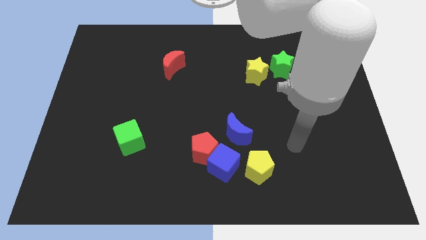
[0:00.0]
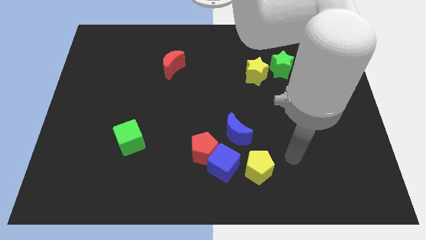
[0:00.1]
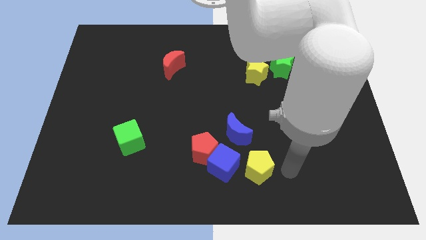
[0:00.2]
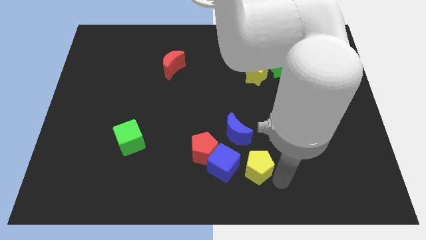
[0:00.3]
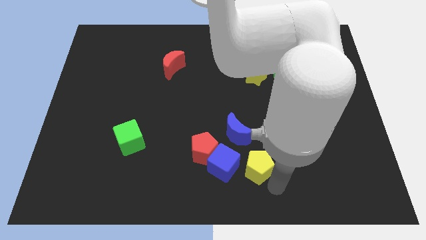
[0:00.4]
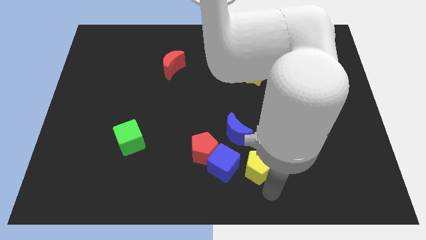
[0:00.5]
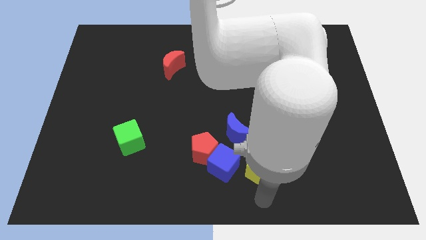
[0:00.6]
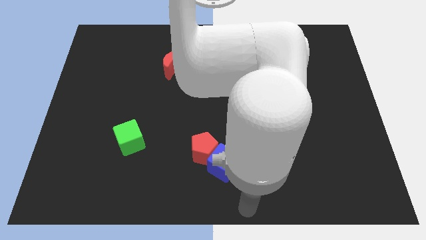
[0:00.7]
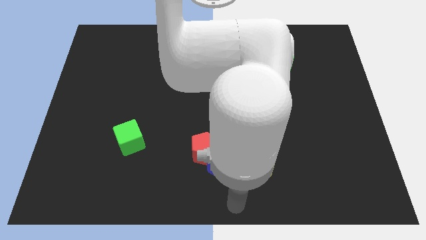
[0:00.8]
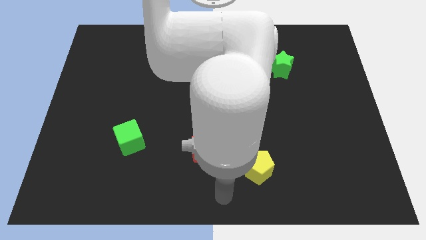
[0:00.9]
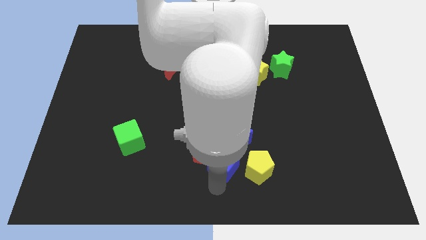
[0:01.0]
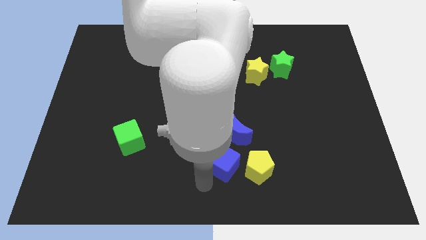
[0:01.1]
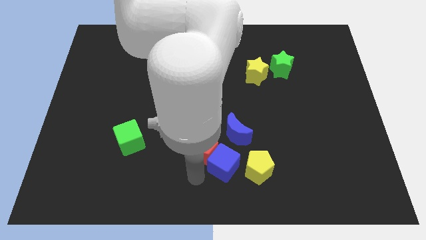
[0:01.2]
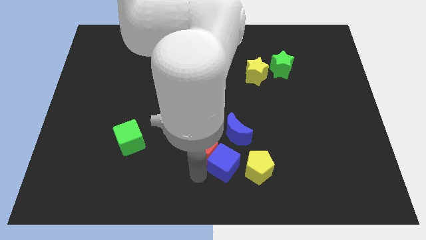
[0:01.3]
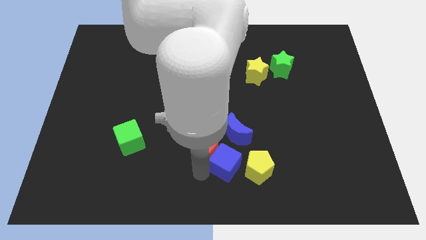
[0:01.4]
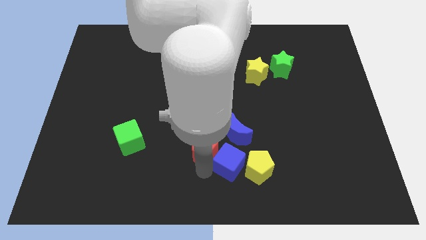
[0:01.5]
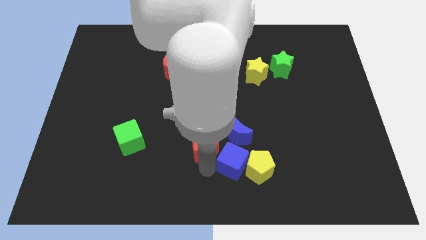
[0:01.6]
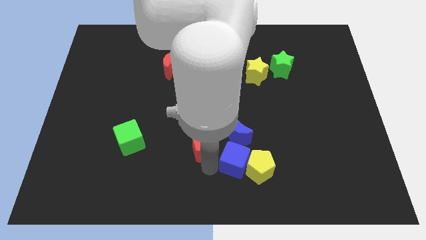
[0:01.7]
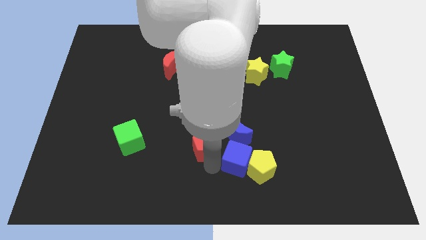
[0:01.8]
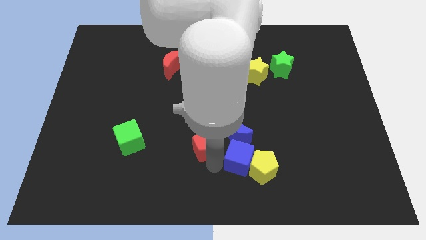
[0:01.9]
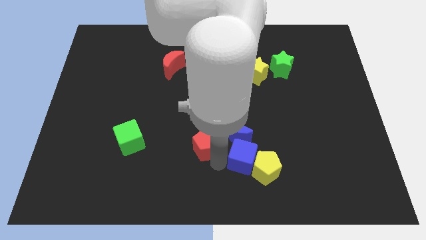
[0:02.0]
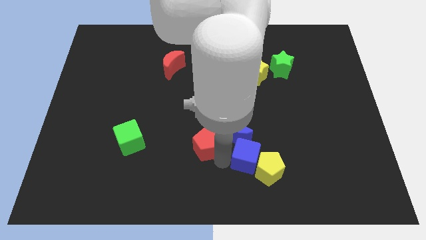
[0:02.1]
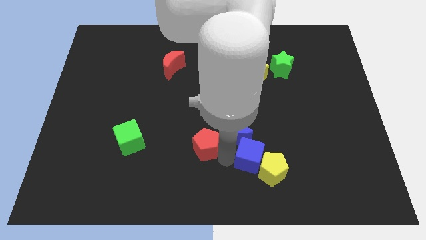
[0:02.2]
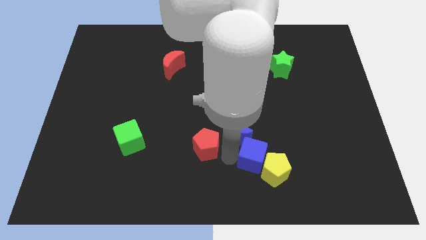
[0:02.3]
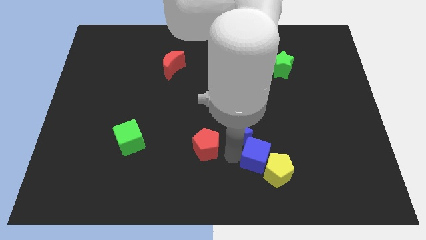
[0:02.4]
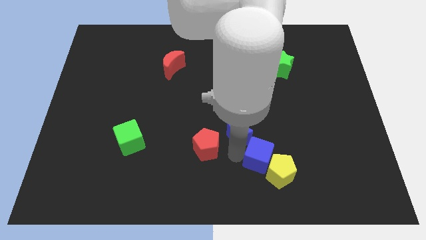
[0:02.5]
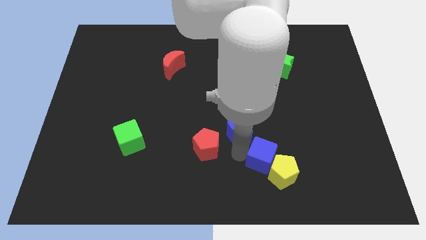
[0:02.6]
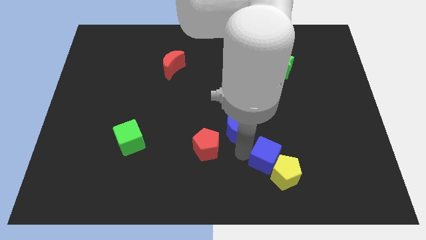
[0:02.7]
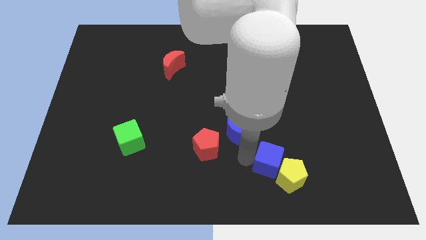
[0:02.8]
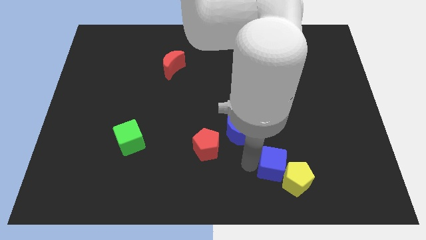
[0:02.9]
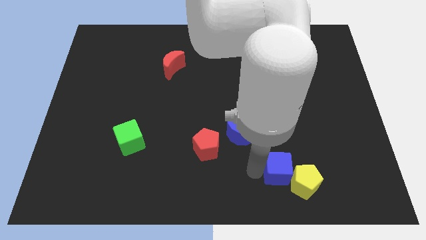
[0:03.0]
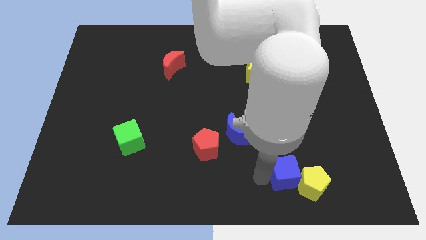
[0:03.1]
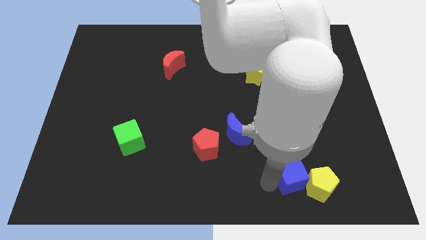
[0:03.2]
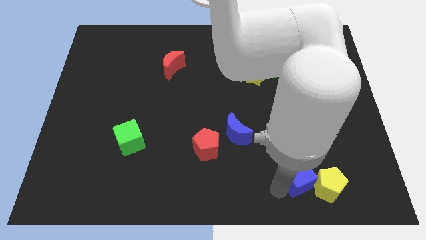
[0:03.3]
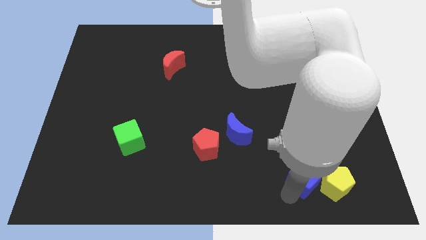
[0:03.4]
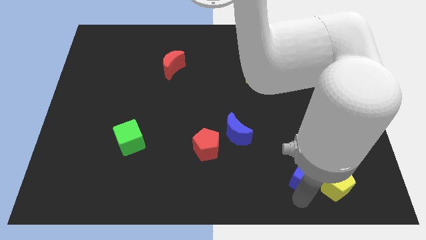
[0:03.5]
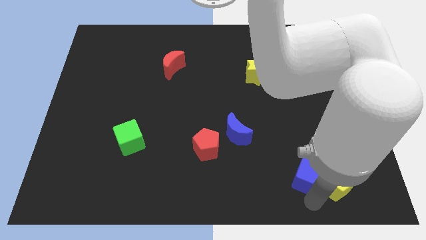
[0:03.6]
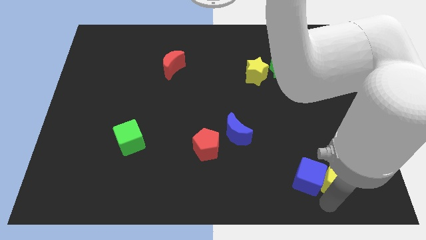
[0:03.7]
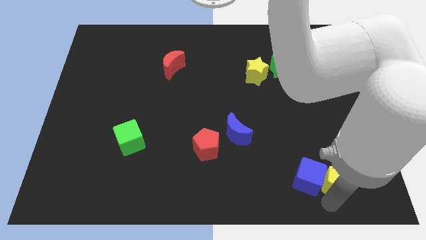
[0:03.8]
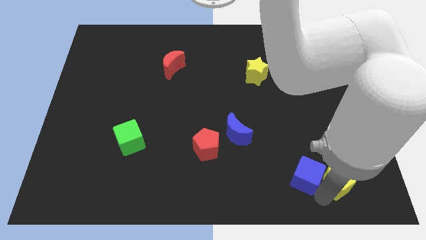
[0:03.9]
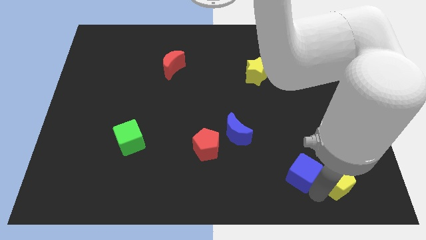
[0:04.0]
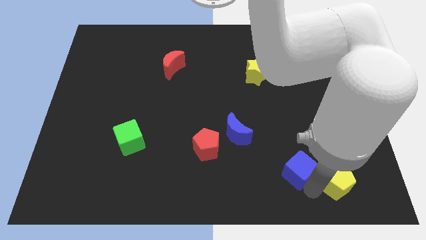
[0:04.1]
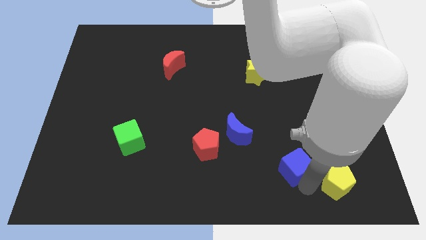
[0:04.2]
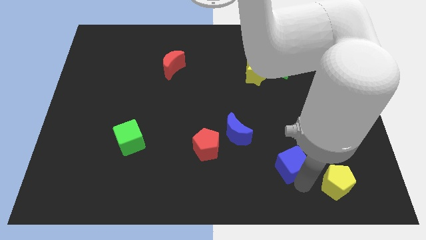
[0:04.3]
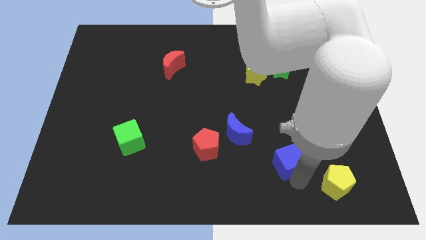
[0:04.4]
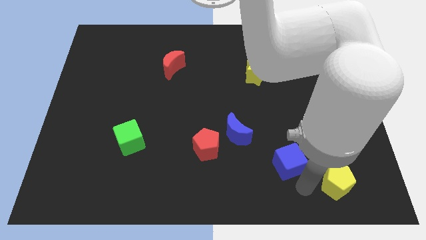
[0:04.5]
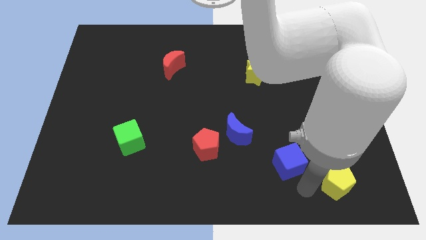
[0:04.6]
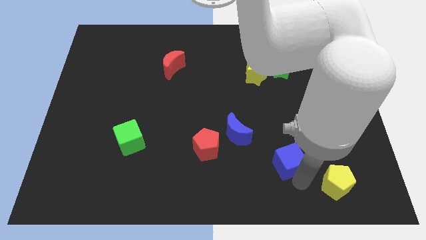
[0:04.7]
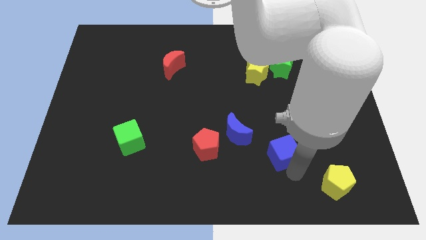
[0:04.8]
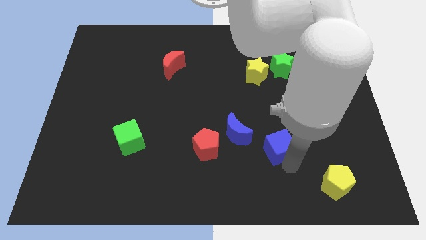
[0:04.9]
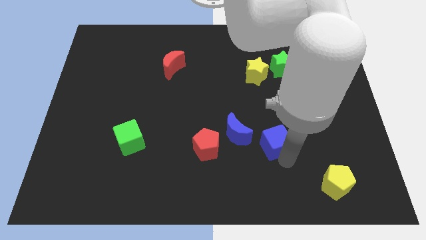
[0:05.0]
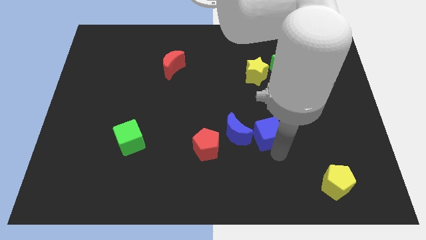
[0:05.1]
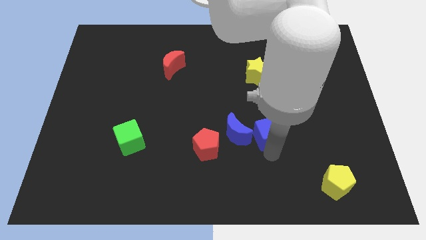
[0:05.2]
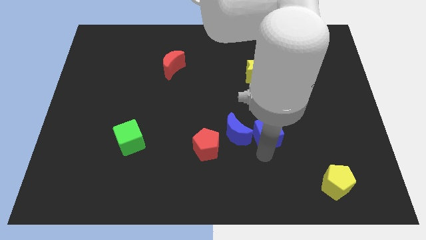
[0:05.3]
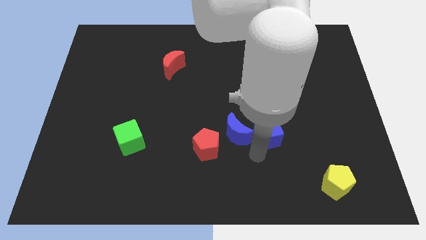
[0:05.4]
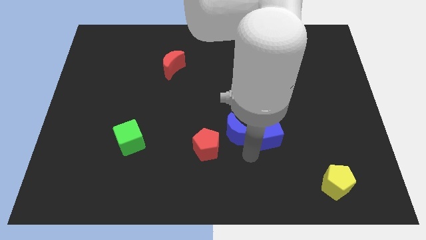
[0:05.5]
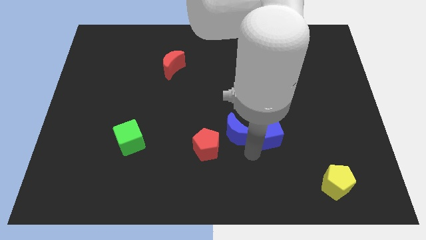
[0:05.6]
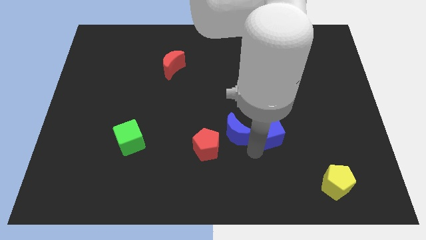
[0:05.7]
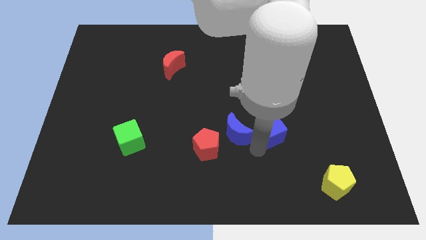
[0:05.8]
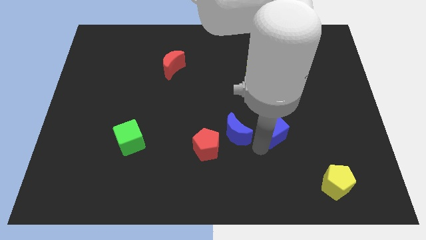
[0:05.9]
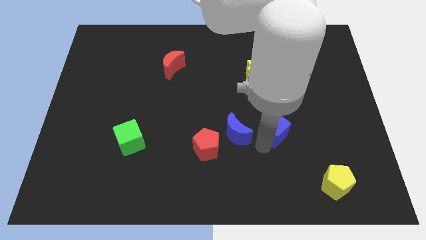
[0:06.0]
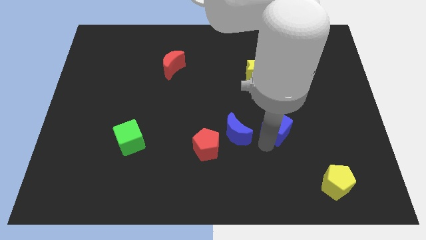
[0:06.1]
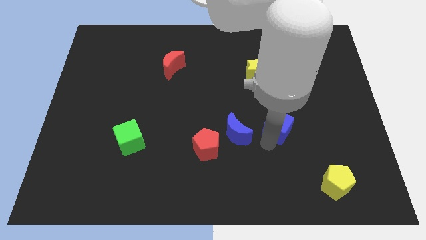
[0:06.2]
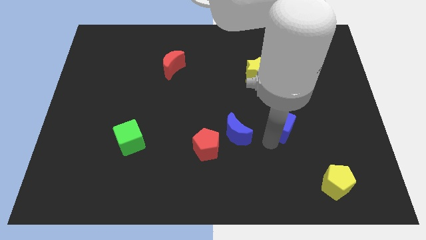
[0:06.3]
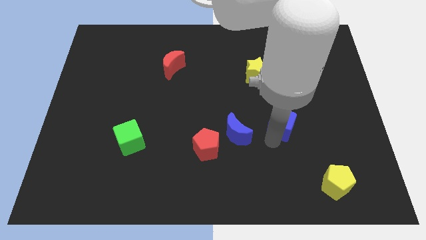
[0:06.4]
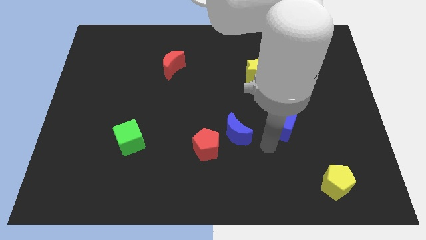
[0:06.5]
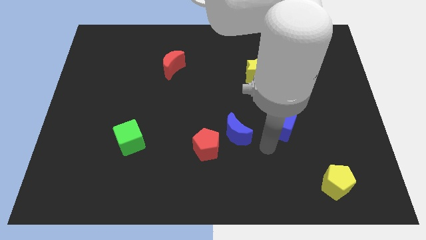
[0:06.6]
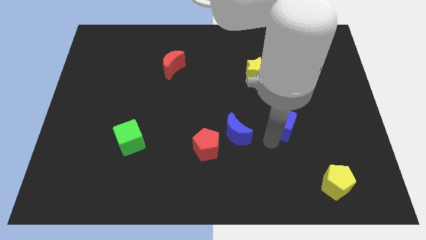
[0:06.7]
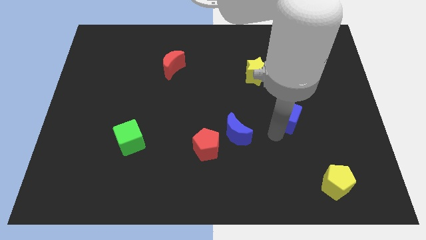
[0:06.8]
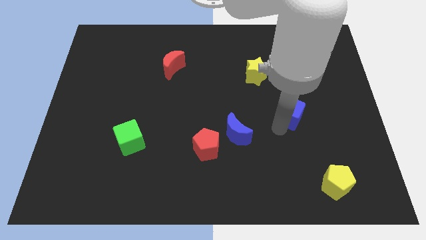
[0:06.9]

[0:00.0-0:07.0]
push the blue cube diagonally up and right

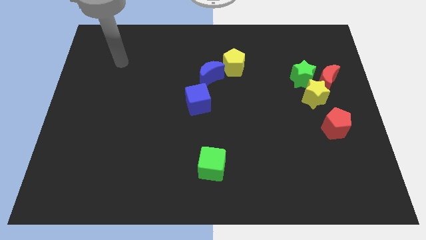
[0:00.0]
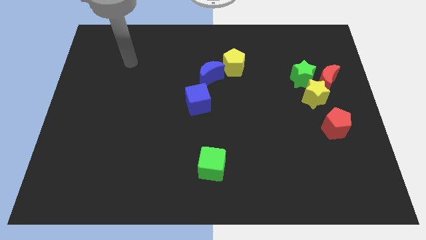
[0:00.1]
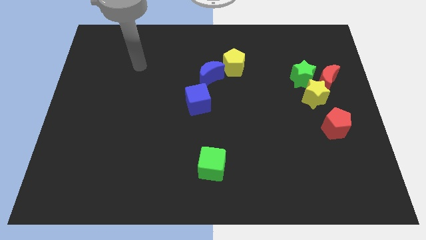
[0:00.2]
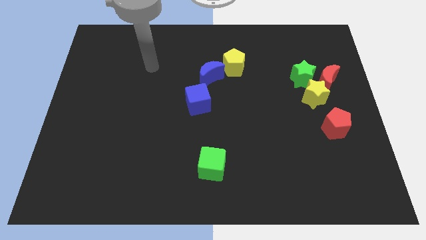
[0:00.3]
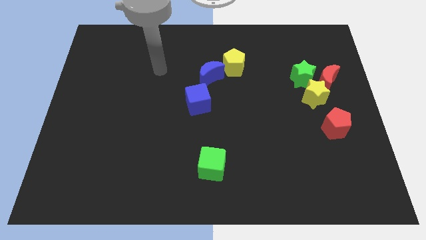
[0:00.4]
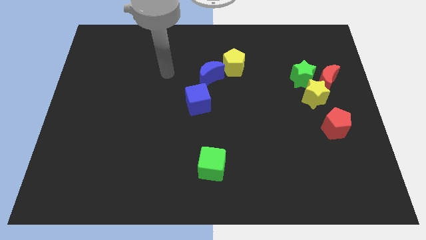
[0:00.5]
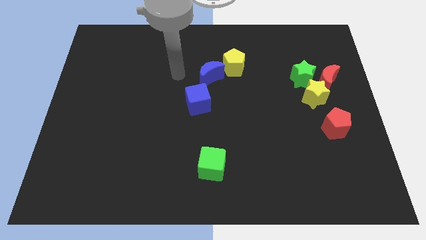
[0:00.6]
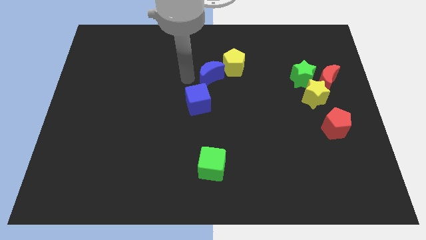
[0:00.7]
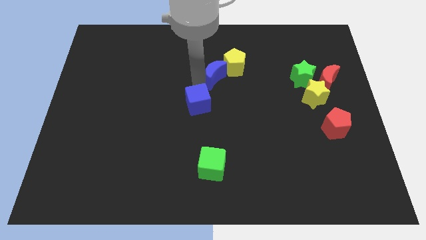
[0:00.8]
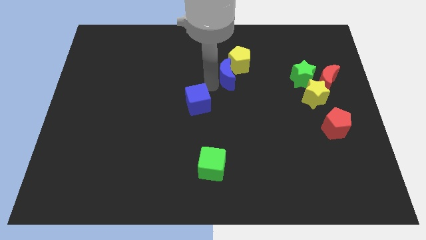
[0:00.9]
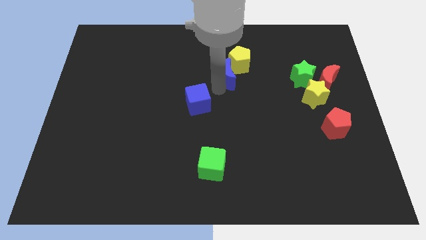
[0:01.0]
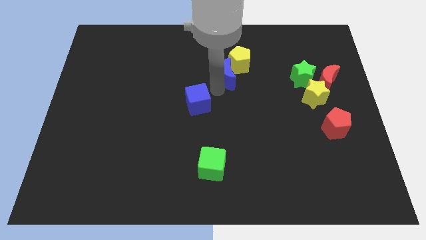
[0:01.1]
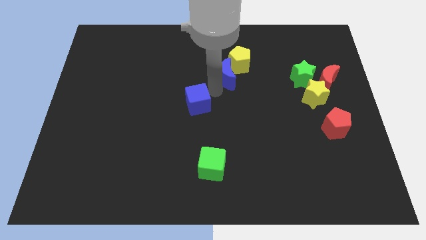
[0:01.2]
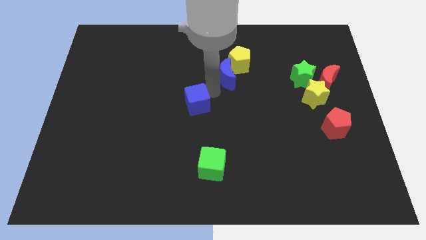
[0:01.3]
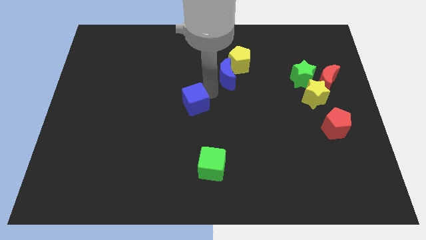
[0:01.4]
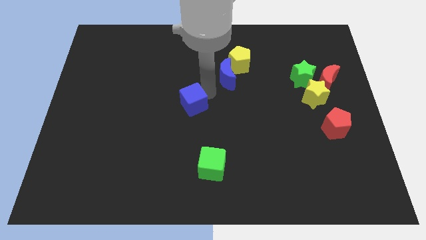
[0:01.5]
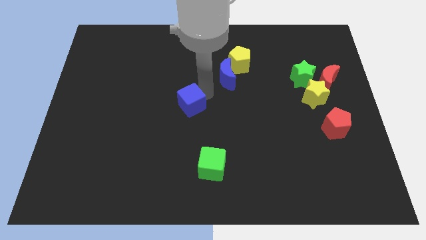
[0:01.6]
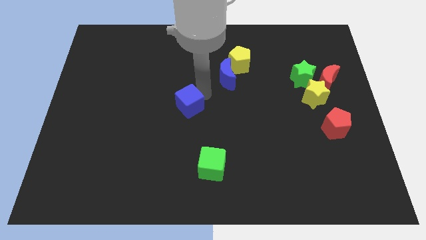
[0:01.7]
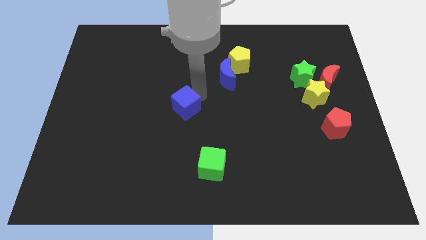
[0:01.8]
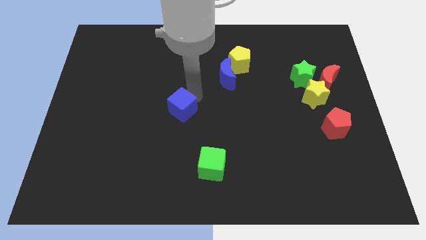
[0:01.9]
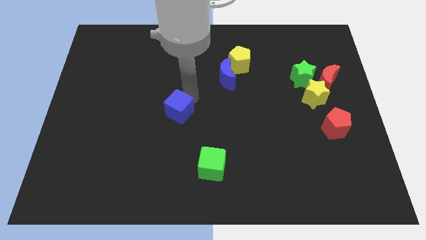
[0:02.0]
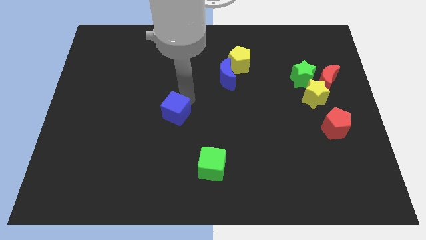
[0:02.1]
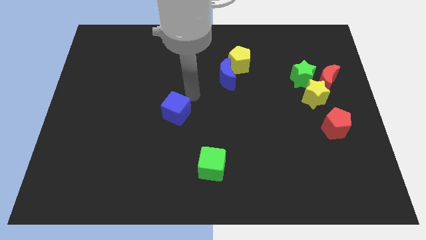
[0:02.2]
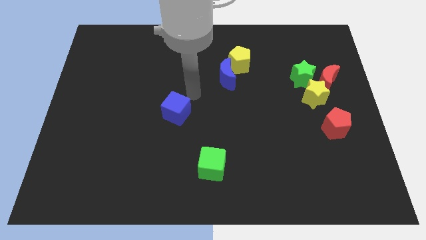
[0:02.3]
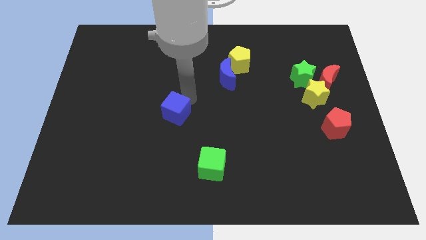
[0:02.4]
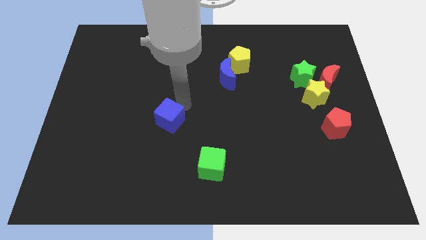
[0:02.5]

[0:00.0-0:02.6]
slightly slide the blue cube down and then to the left
